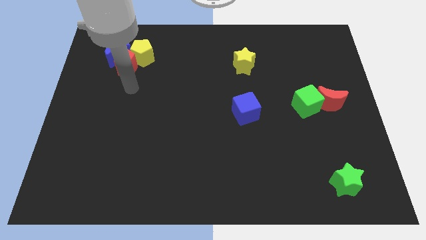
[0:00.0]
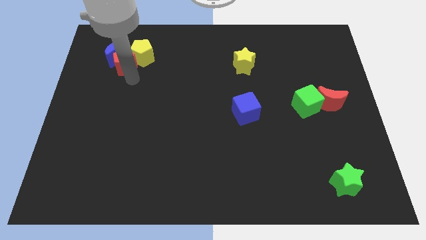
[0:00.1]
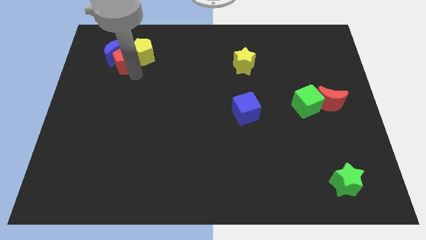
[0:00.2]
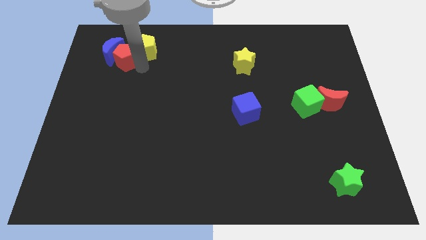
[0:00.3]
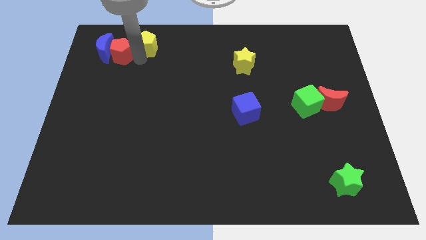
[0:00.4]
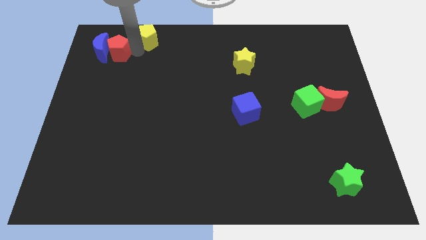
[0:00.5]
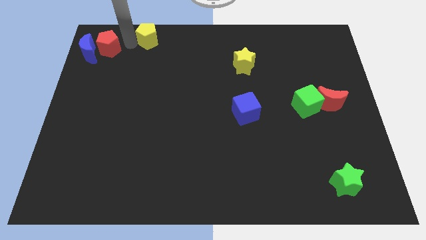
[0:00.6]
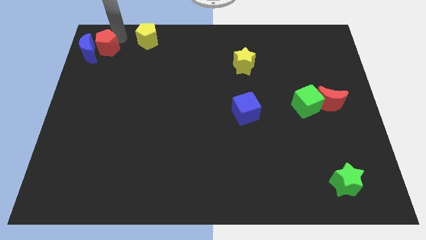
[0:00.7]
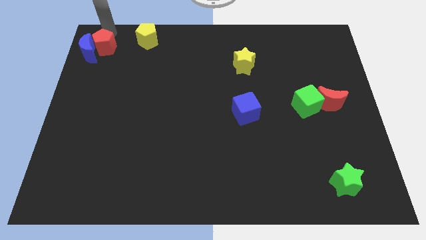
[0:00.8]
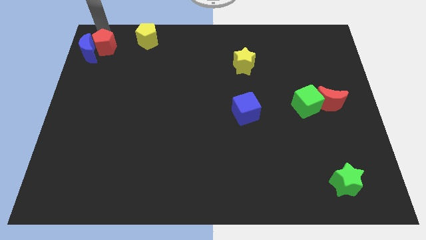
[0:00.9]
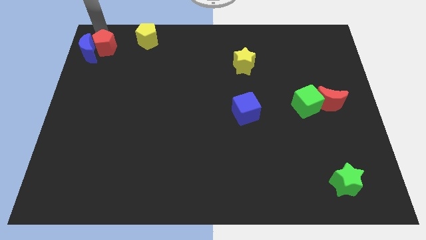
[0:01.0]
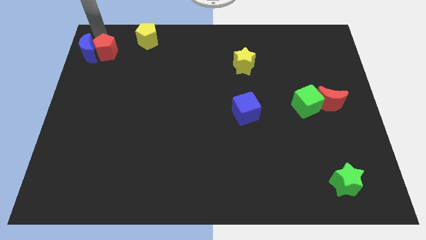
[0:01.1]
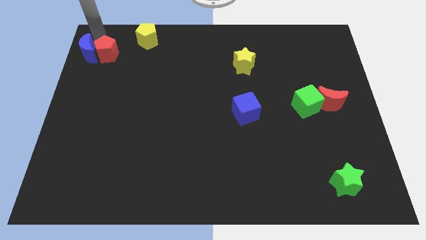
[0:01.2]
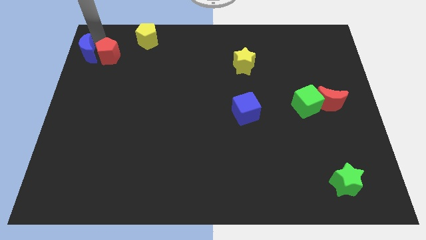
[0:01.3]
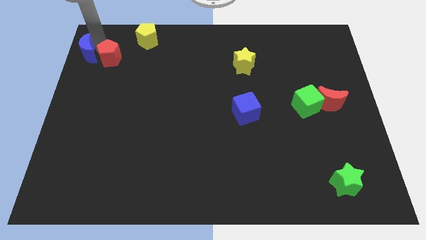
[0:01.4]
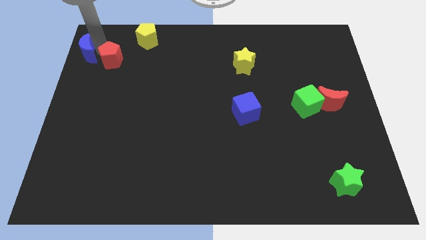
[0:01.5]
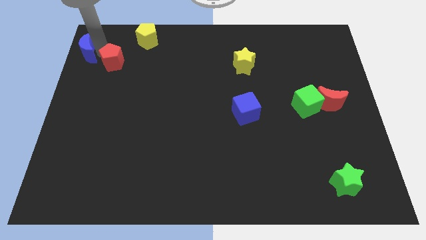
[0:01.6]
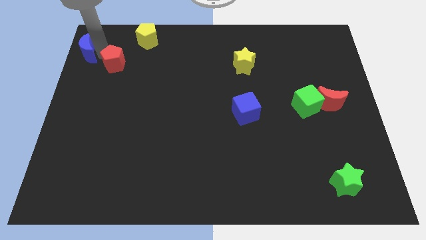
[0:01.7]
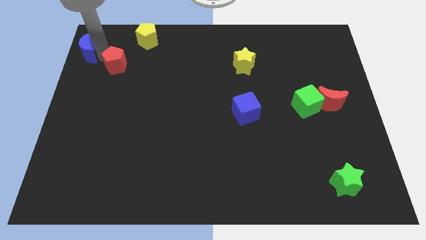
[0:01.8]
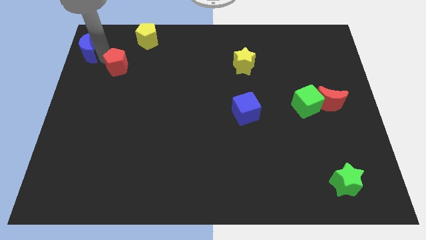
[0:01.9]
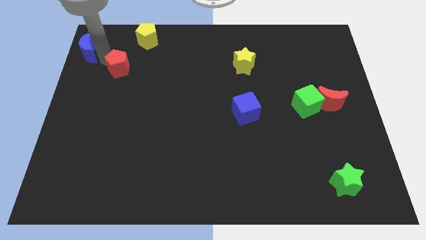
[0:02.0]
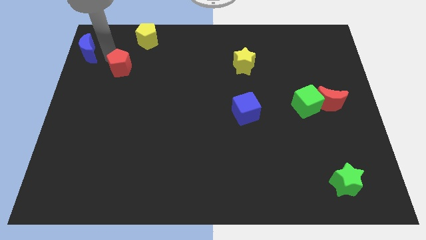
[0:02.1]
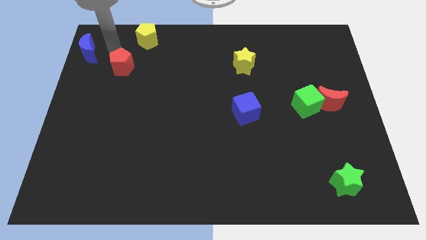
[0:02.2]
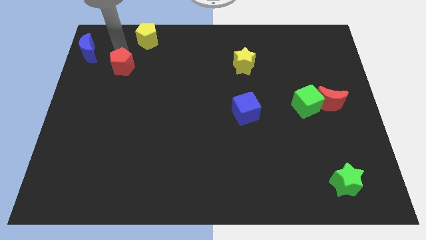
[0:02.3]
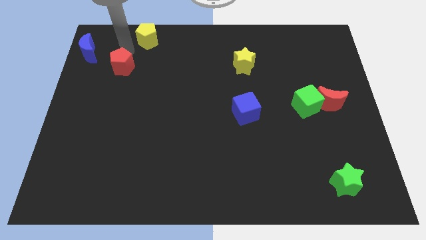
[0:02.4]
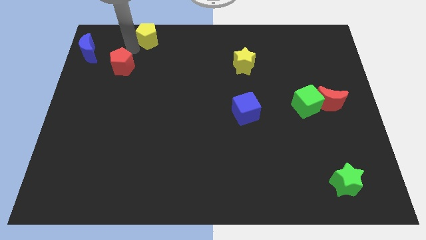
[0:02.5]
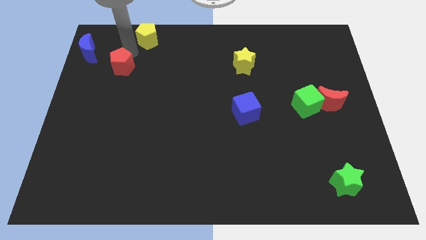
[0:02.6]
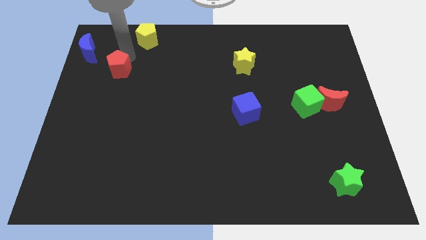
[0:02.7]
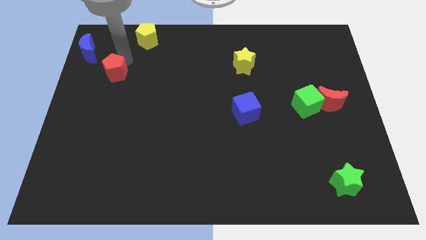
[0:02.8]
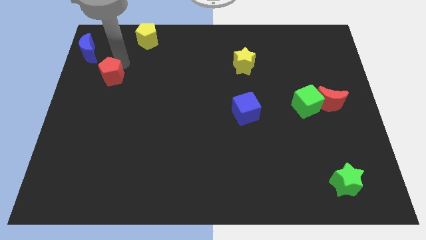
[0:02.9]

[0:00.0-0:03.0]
move the red pentagon away from the blue moon and yellow pentagon

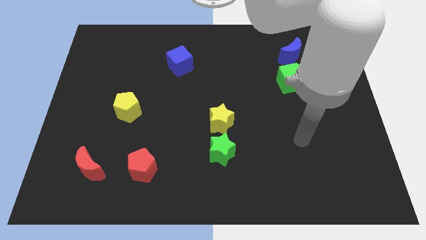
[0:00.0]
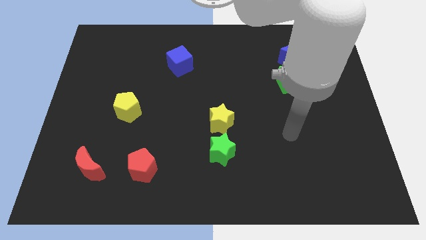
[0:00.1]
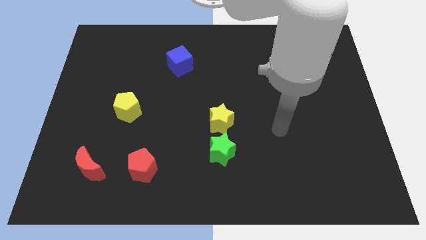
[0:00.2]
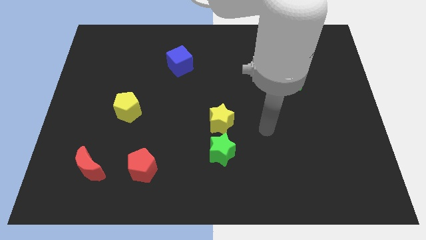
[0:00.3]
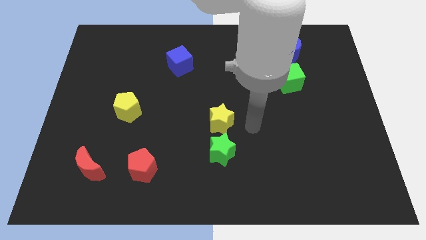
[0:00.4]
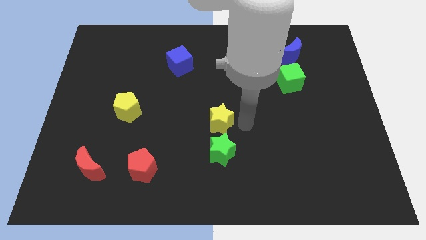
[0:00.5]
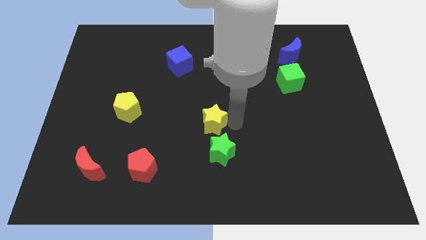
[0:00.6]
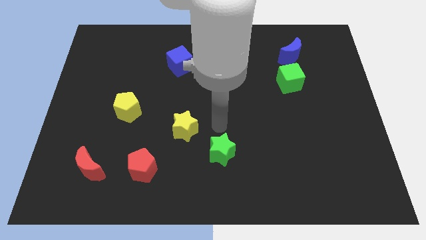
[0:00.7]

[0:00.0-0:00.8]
move the green star away from the yellow star

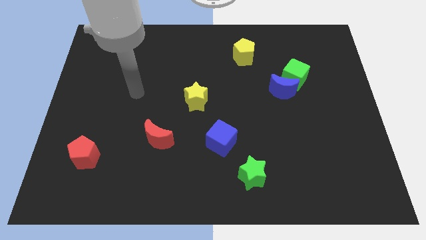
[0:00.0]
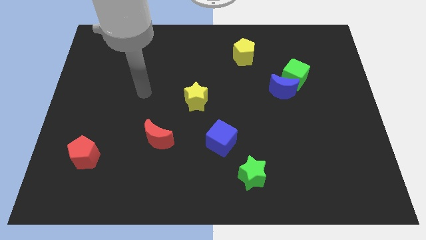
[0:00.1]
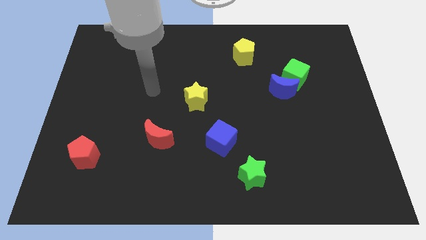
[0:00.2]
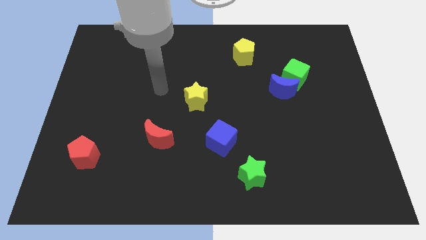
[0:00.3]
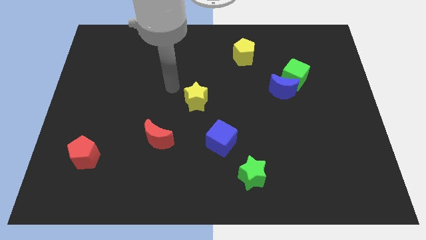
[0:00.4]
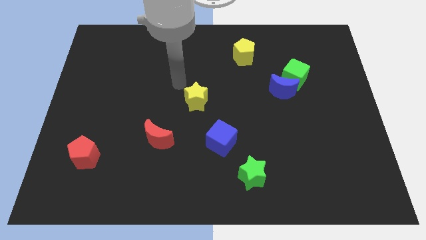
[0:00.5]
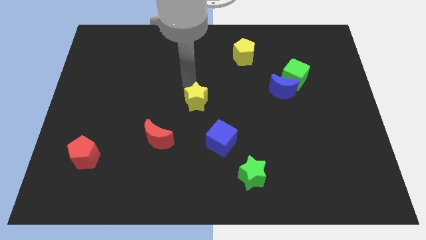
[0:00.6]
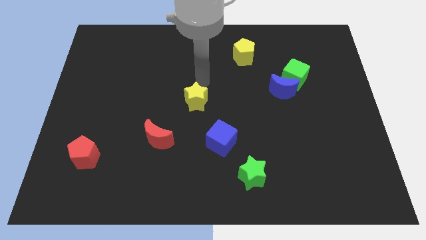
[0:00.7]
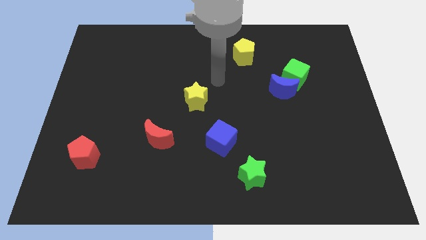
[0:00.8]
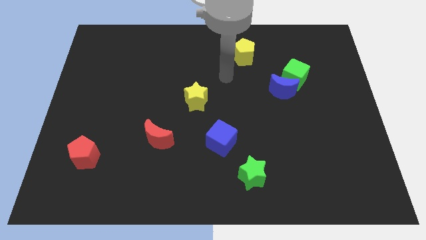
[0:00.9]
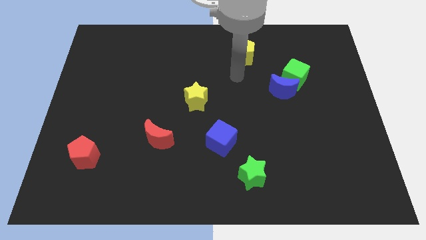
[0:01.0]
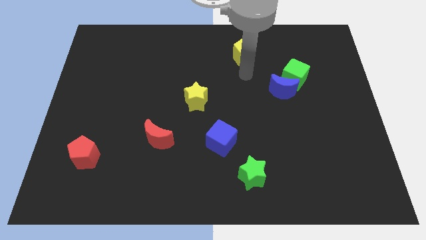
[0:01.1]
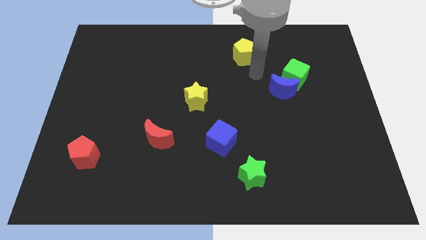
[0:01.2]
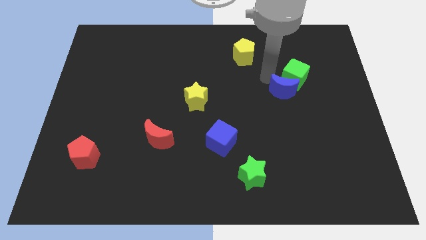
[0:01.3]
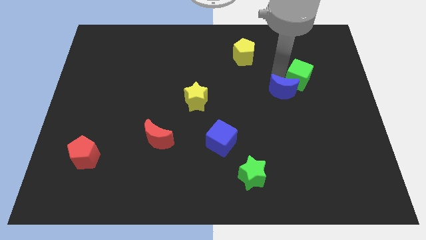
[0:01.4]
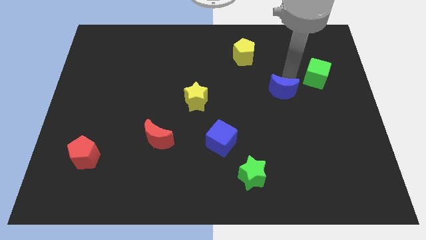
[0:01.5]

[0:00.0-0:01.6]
move the blue moon away from the green cube

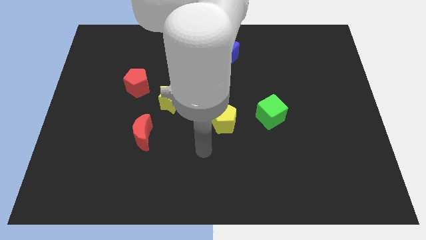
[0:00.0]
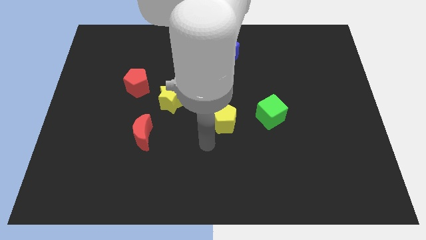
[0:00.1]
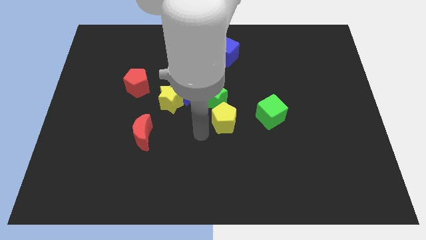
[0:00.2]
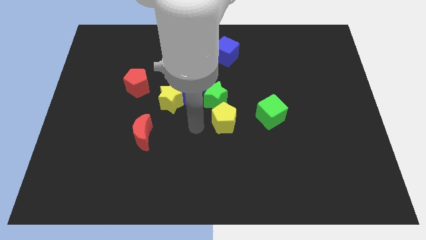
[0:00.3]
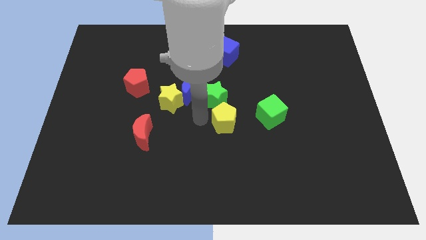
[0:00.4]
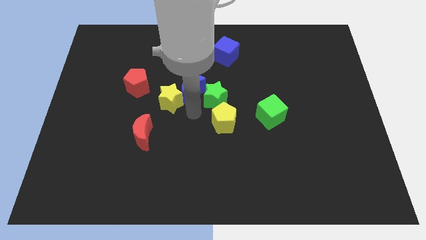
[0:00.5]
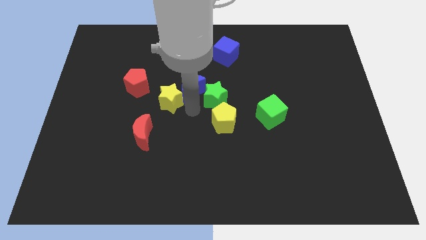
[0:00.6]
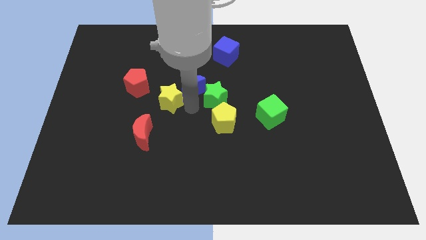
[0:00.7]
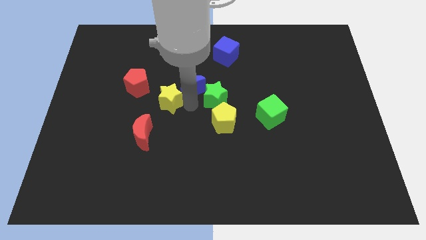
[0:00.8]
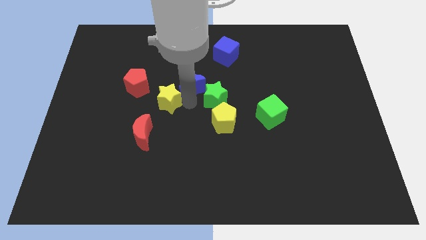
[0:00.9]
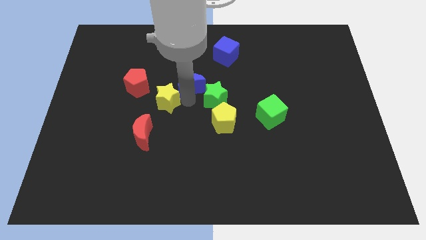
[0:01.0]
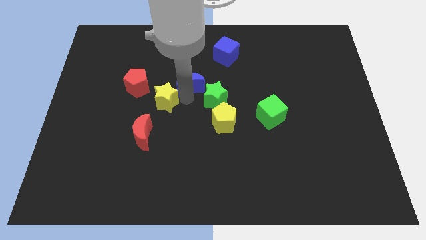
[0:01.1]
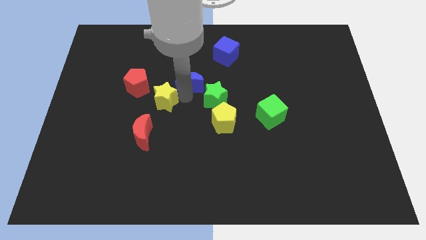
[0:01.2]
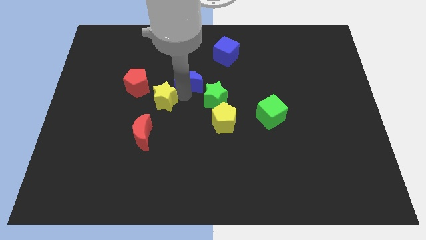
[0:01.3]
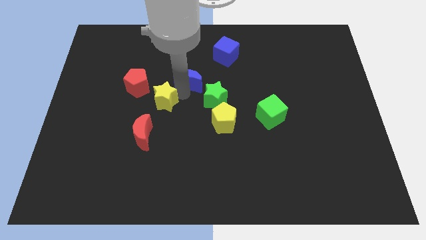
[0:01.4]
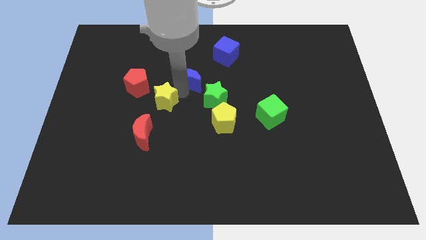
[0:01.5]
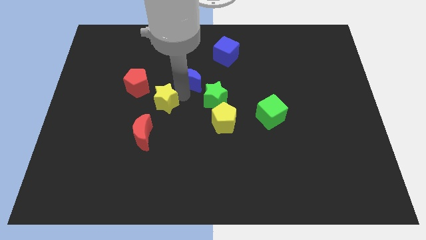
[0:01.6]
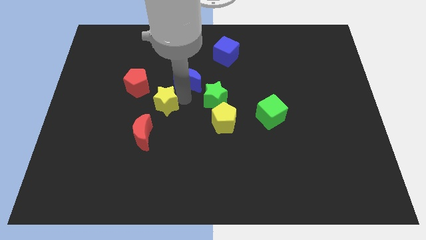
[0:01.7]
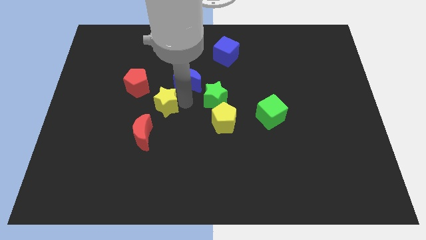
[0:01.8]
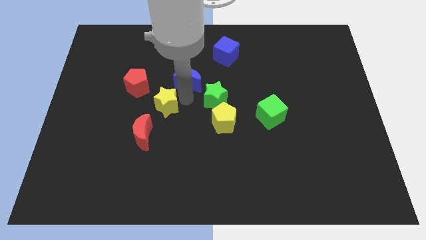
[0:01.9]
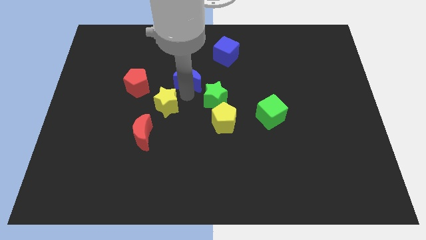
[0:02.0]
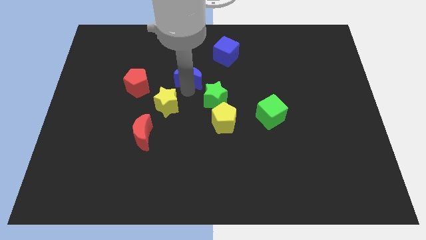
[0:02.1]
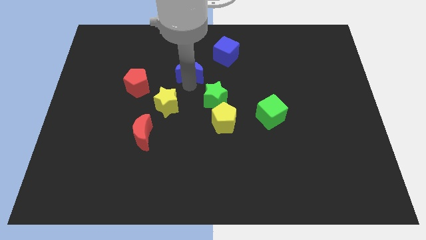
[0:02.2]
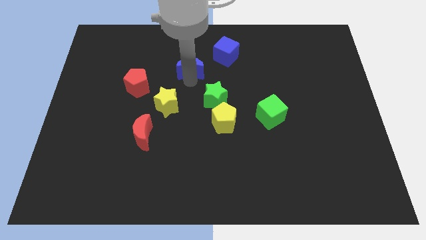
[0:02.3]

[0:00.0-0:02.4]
separate the blue moon from the green star and yellow star

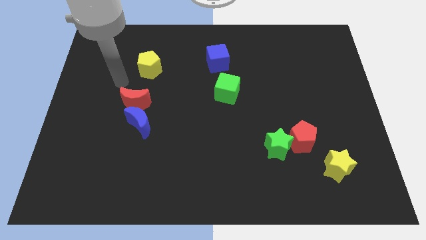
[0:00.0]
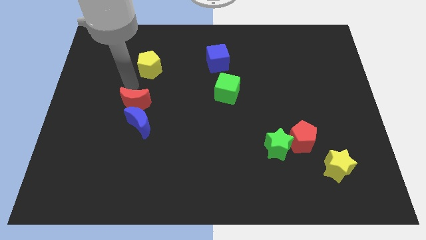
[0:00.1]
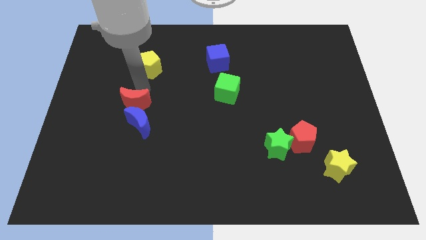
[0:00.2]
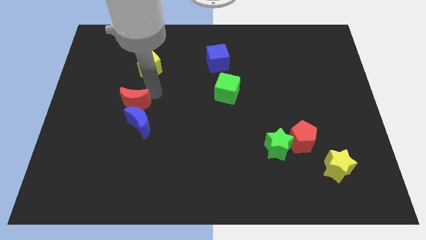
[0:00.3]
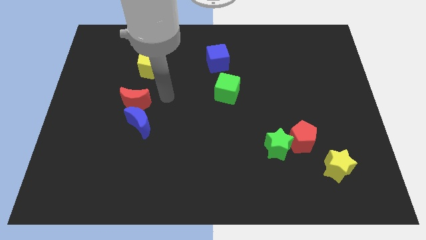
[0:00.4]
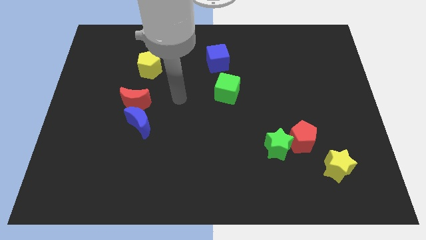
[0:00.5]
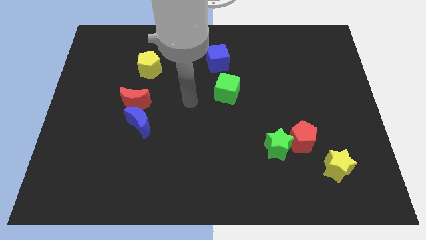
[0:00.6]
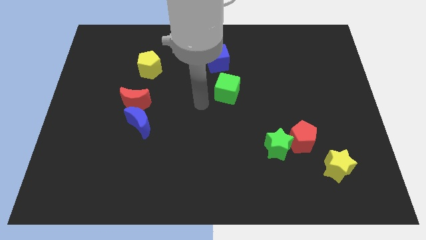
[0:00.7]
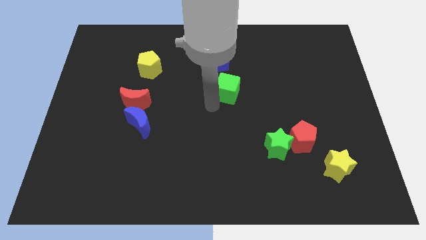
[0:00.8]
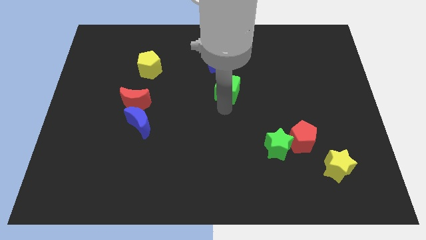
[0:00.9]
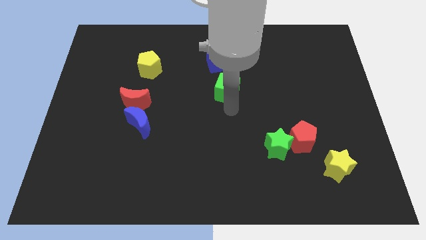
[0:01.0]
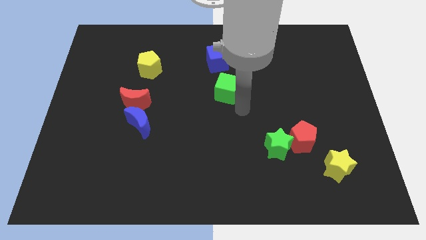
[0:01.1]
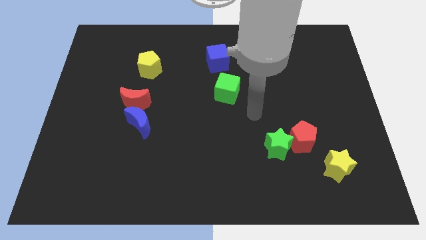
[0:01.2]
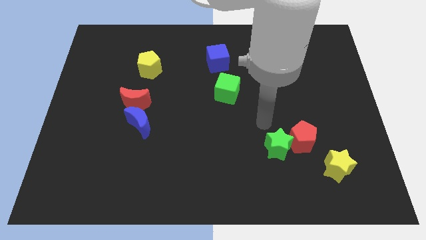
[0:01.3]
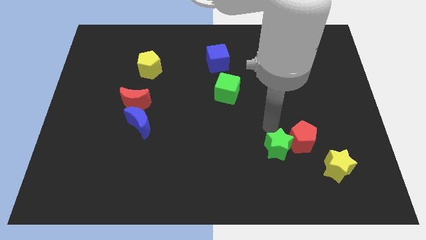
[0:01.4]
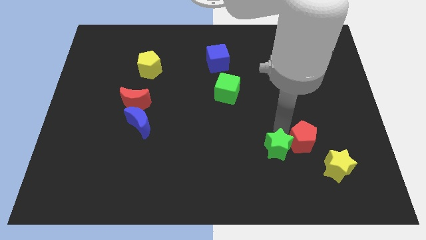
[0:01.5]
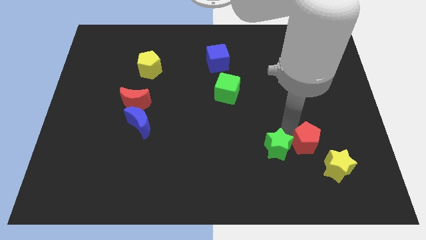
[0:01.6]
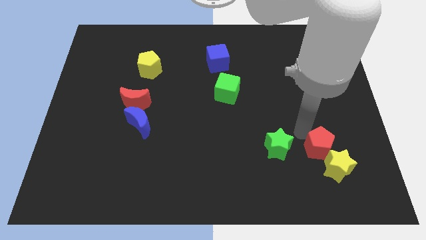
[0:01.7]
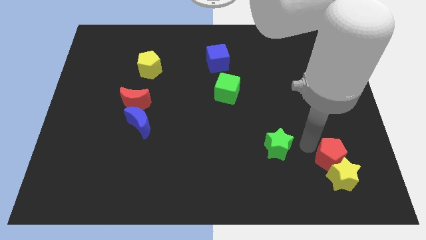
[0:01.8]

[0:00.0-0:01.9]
pull the green star apart from the red pentagon
